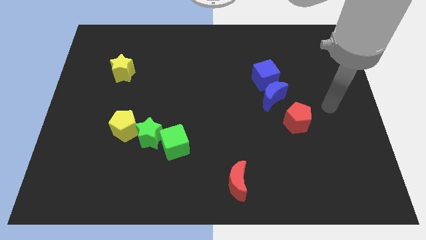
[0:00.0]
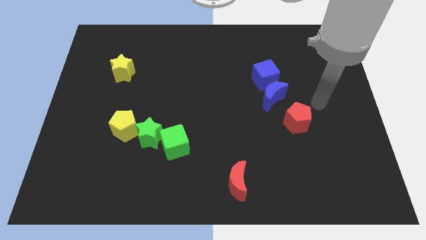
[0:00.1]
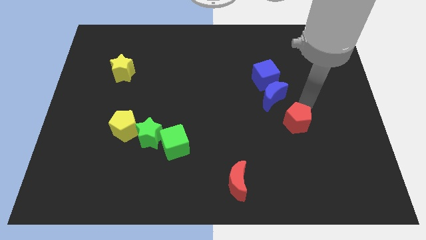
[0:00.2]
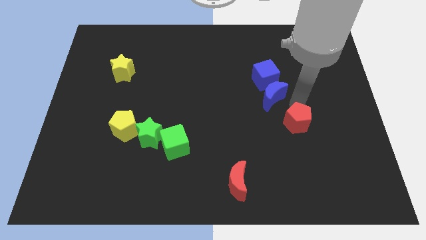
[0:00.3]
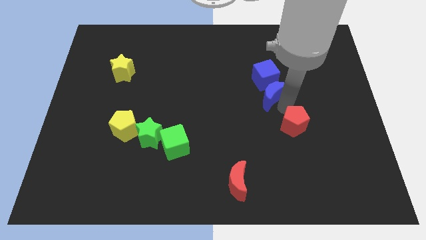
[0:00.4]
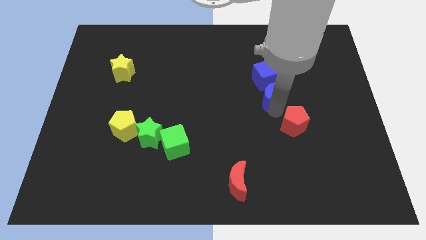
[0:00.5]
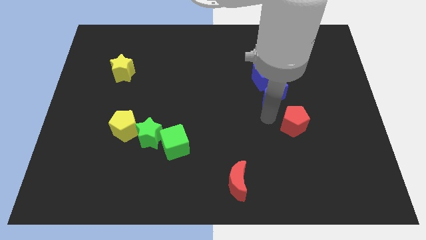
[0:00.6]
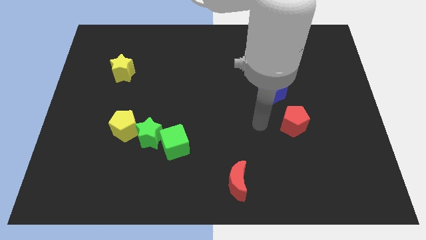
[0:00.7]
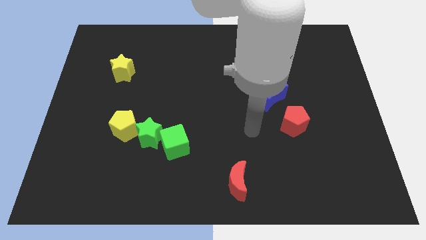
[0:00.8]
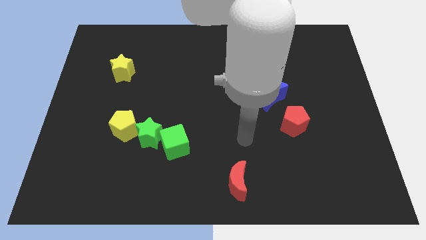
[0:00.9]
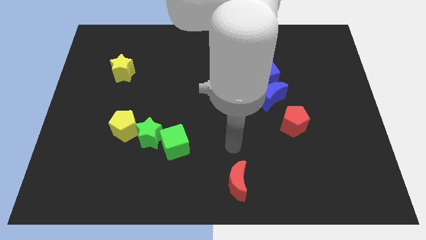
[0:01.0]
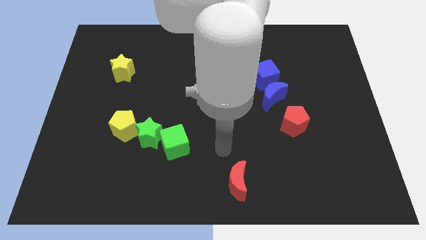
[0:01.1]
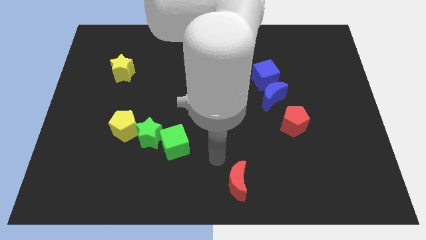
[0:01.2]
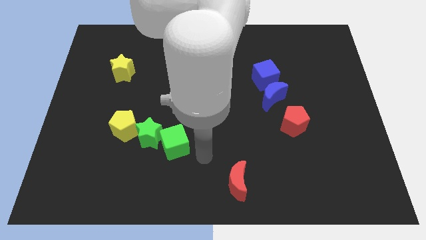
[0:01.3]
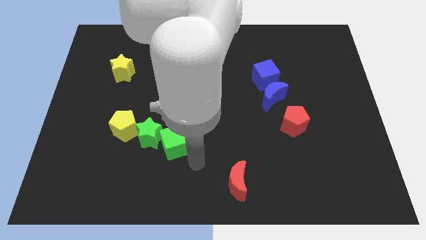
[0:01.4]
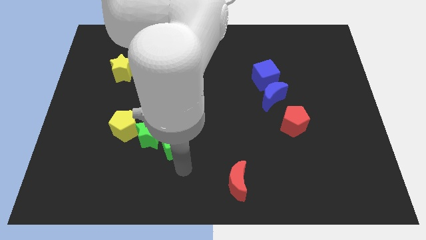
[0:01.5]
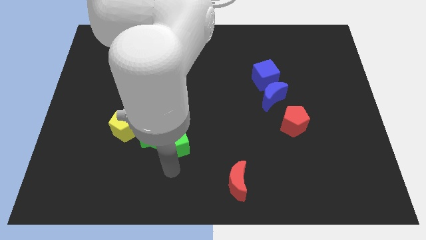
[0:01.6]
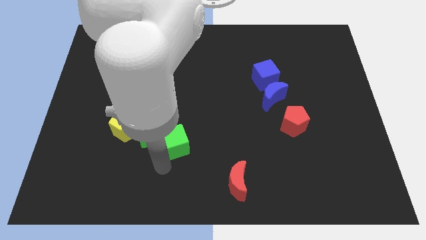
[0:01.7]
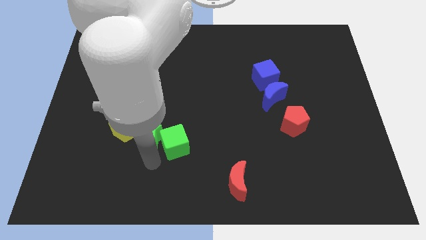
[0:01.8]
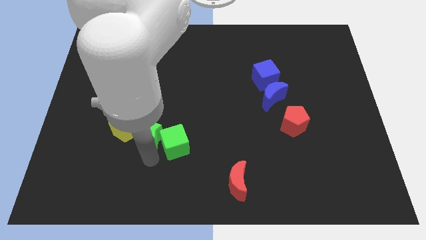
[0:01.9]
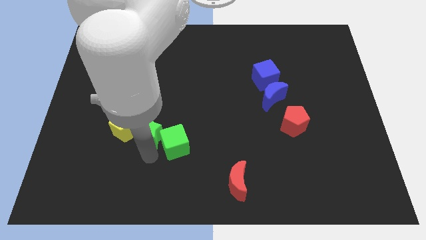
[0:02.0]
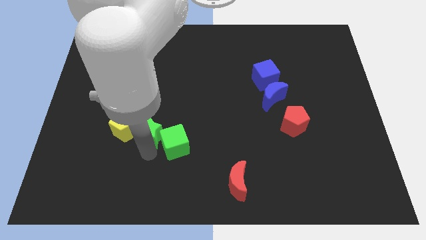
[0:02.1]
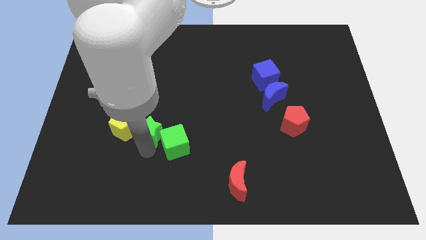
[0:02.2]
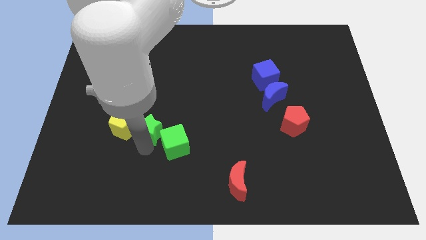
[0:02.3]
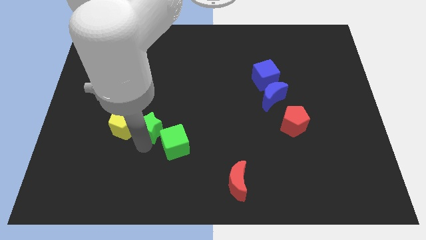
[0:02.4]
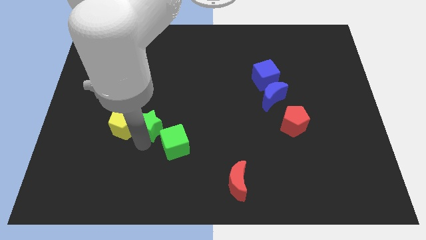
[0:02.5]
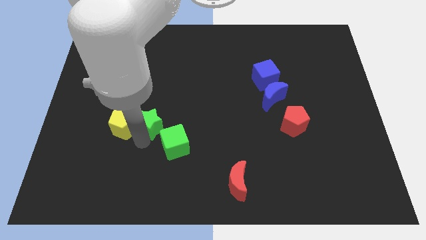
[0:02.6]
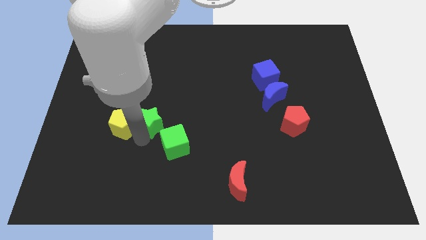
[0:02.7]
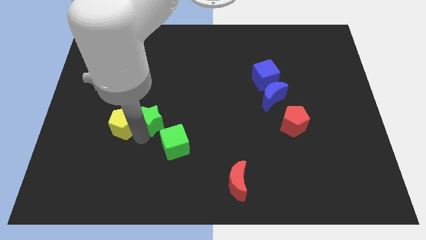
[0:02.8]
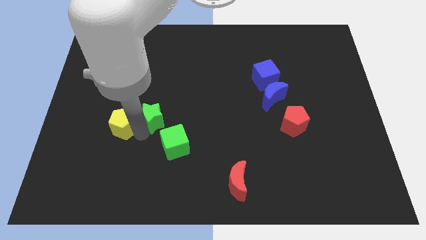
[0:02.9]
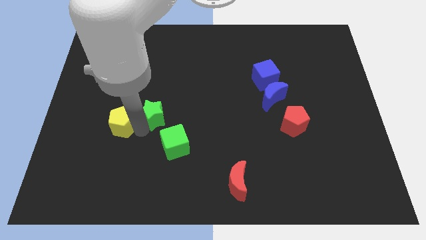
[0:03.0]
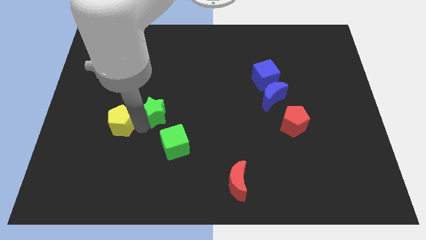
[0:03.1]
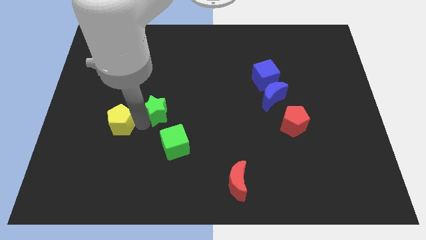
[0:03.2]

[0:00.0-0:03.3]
move the green star upwards somewhat

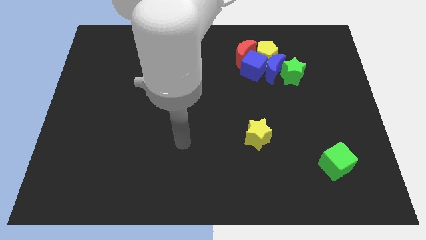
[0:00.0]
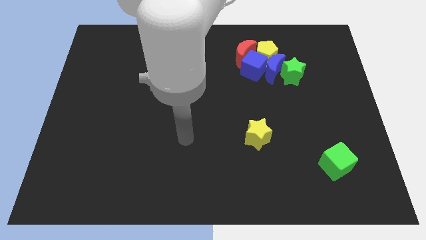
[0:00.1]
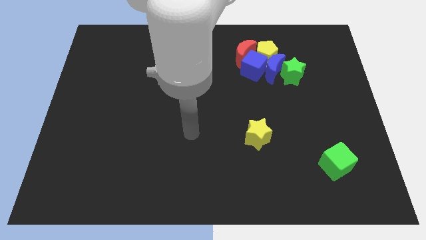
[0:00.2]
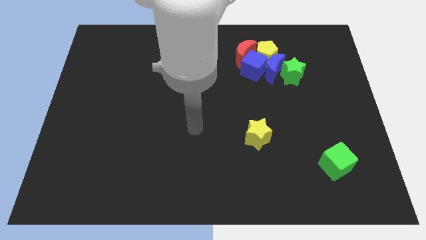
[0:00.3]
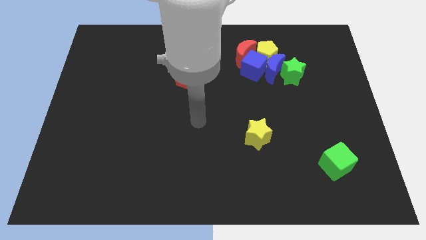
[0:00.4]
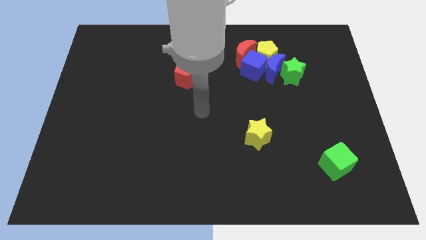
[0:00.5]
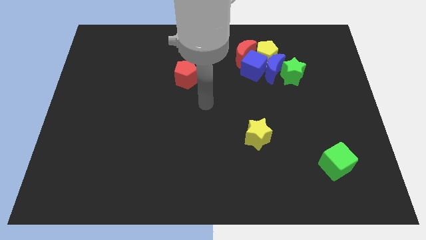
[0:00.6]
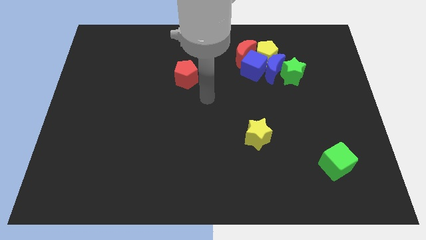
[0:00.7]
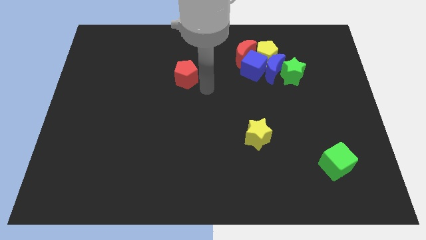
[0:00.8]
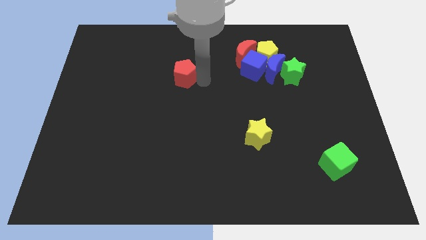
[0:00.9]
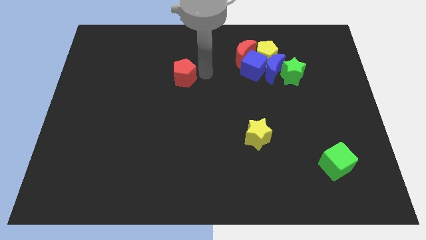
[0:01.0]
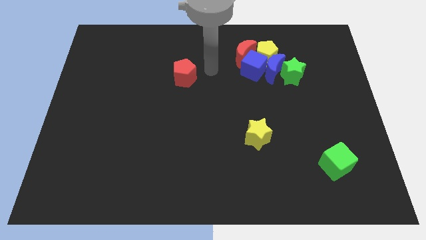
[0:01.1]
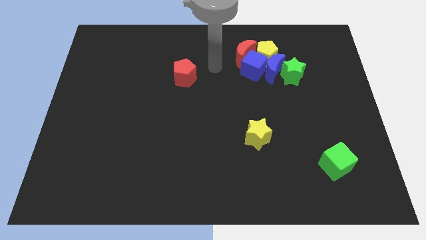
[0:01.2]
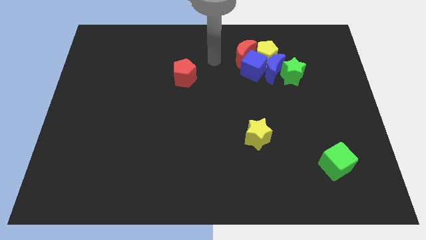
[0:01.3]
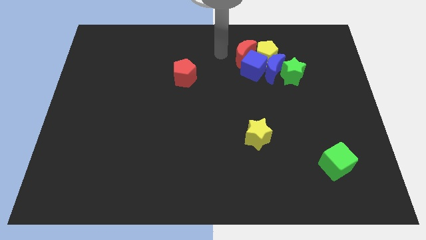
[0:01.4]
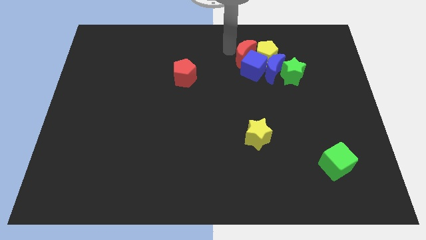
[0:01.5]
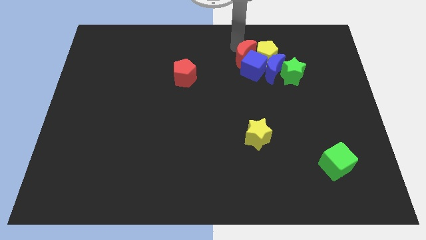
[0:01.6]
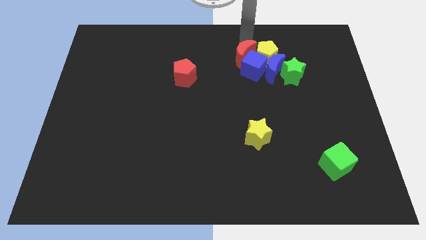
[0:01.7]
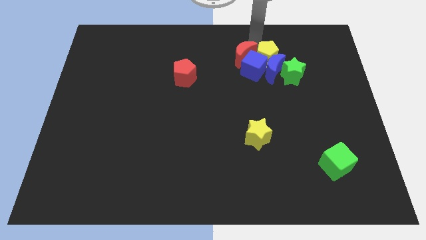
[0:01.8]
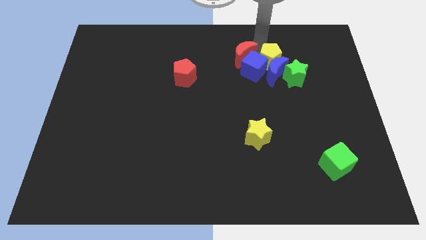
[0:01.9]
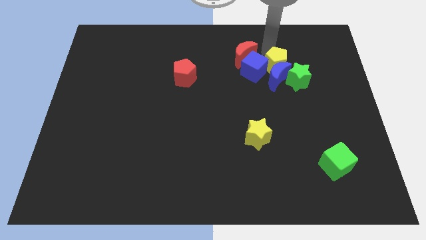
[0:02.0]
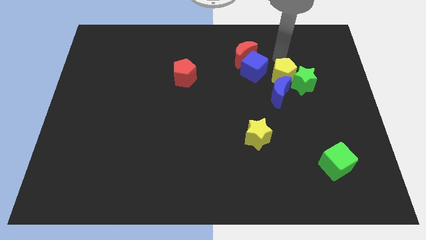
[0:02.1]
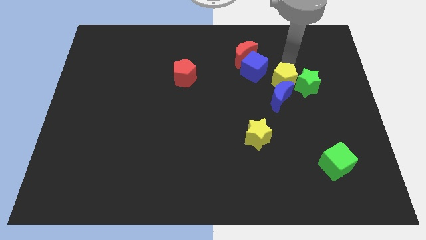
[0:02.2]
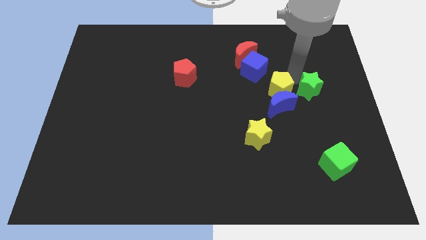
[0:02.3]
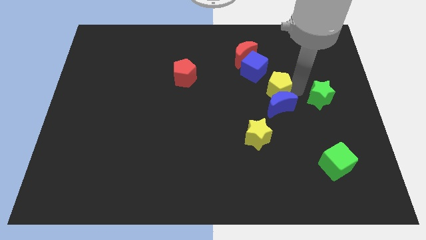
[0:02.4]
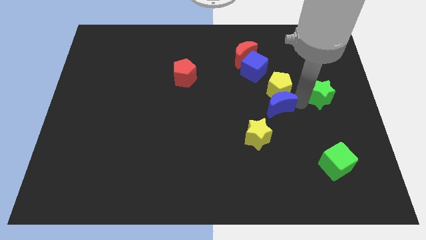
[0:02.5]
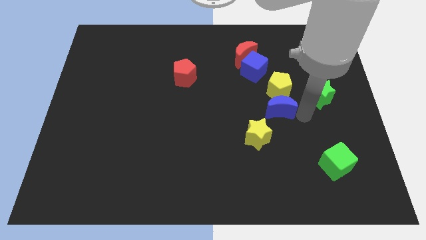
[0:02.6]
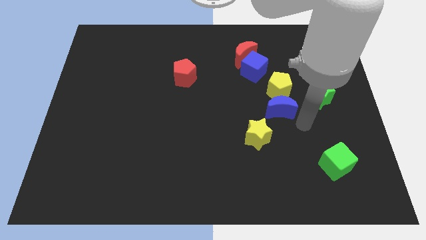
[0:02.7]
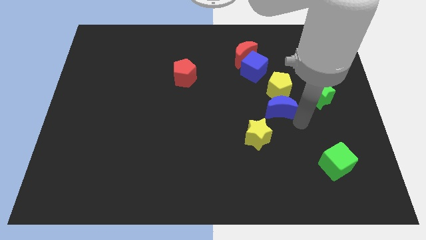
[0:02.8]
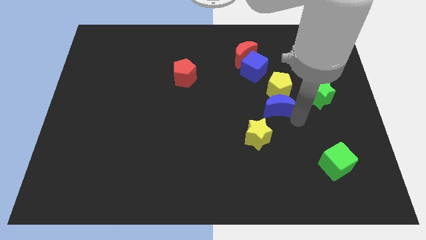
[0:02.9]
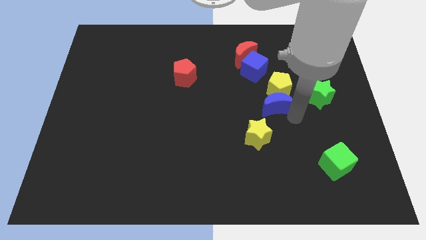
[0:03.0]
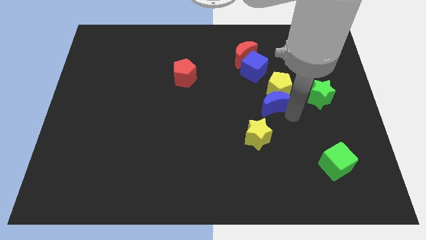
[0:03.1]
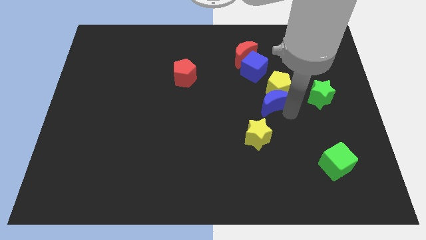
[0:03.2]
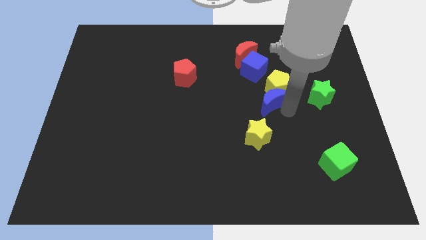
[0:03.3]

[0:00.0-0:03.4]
slide the blue moon slightly down and left

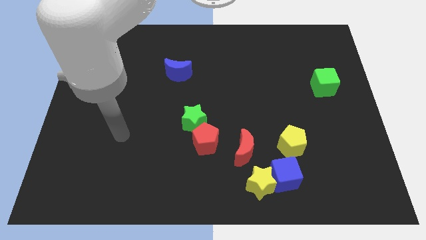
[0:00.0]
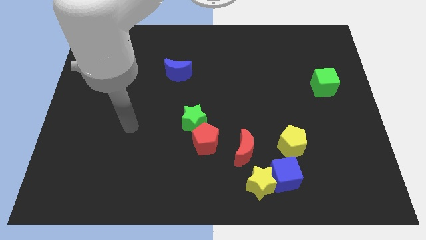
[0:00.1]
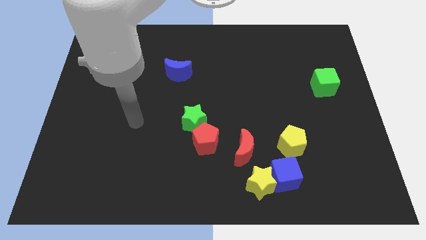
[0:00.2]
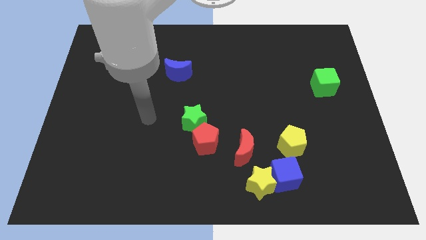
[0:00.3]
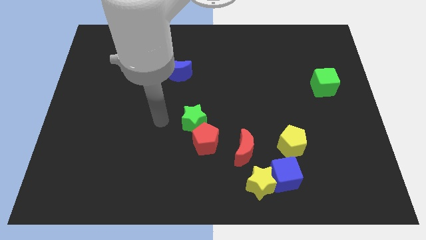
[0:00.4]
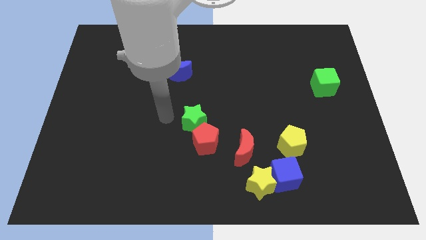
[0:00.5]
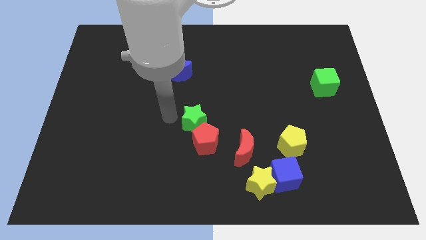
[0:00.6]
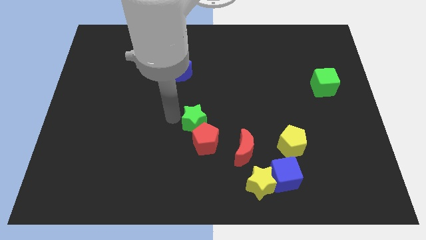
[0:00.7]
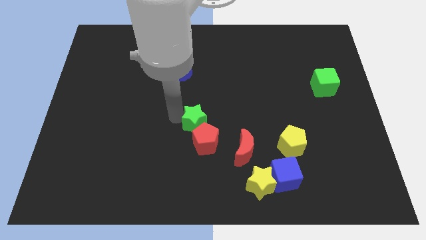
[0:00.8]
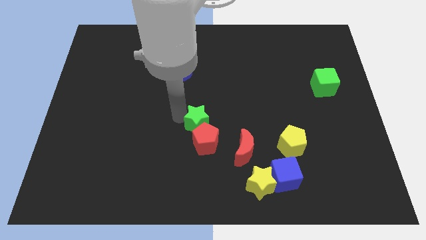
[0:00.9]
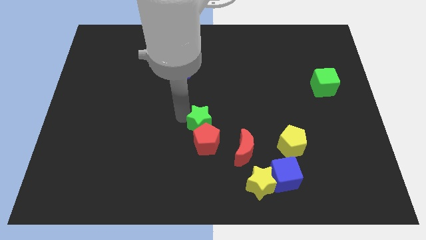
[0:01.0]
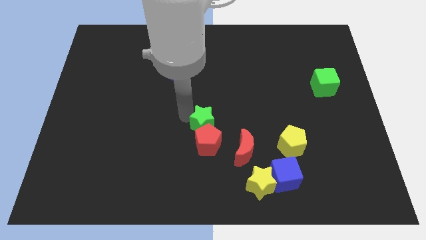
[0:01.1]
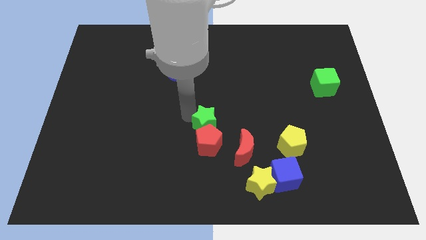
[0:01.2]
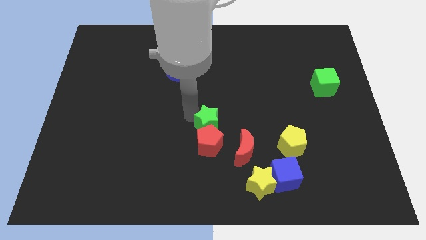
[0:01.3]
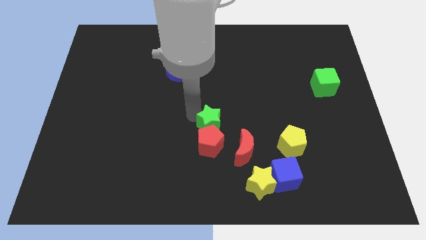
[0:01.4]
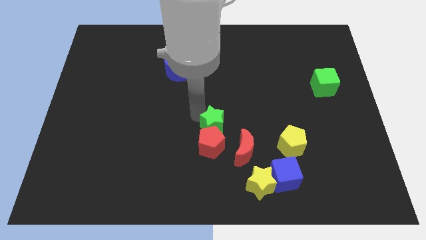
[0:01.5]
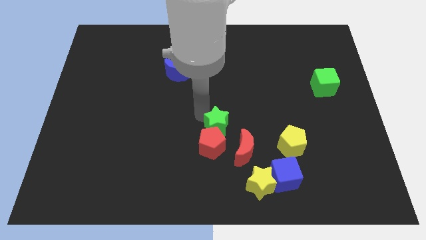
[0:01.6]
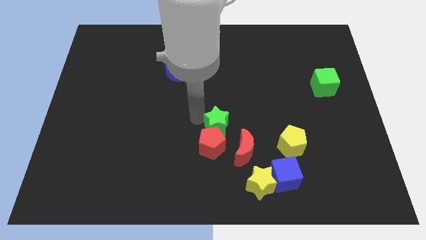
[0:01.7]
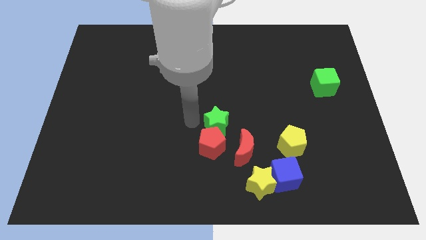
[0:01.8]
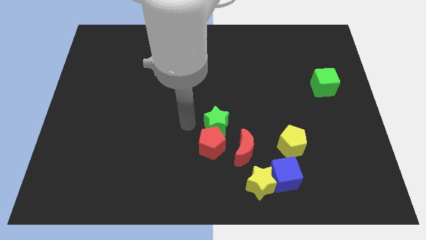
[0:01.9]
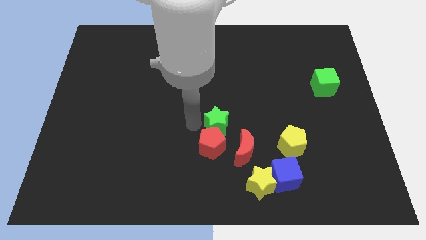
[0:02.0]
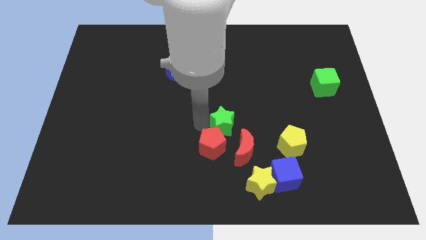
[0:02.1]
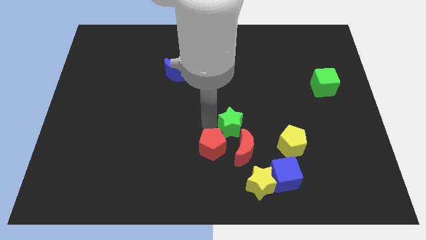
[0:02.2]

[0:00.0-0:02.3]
push the green star a bit right
